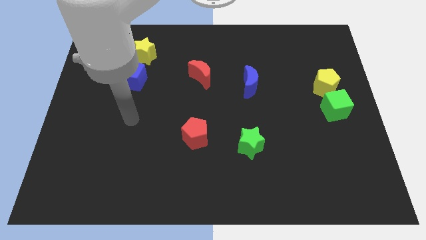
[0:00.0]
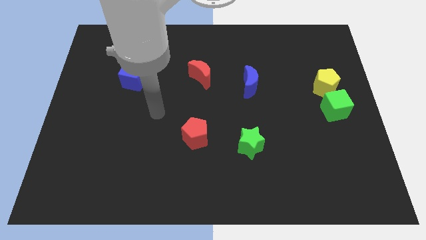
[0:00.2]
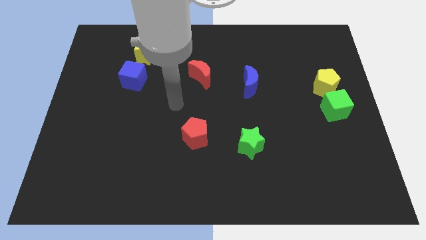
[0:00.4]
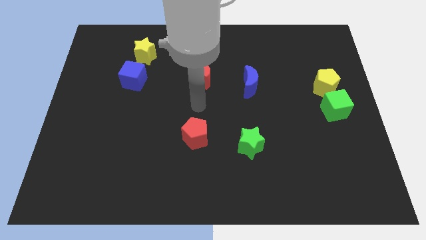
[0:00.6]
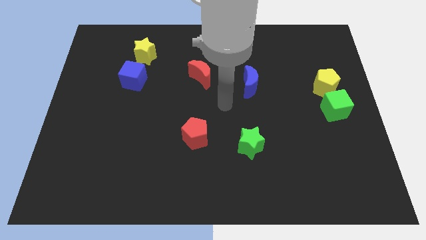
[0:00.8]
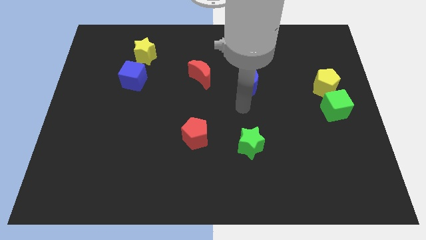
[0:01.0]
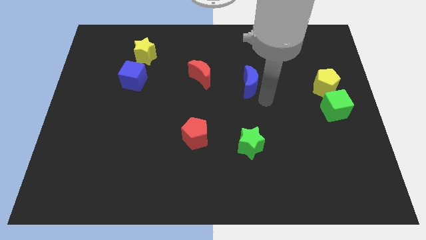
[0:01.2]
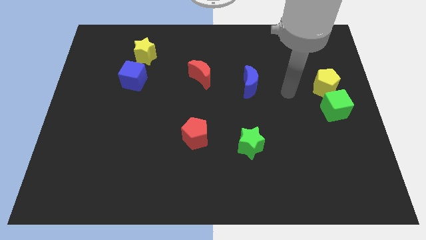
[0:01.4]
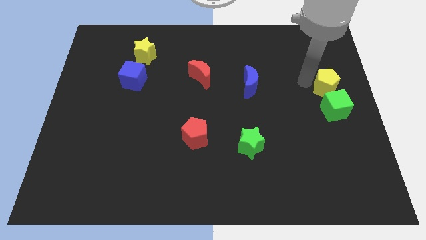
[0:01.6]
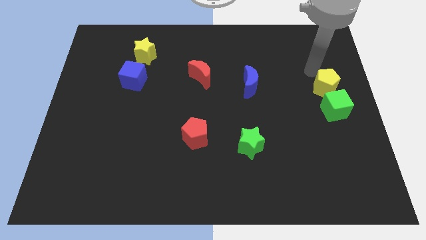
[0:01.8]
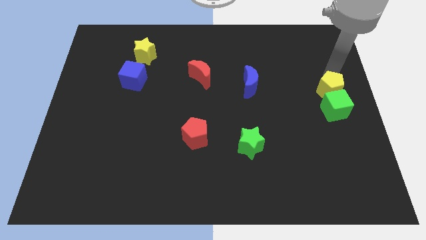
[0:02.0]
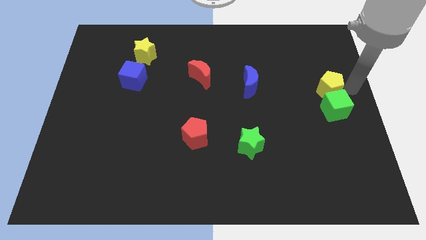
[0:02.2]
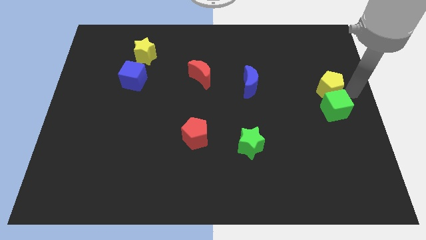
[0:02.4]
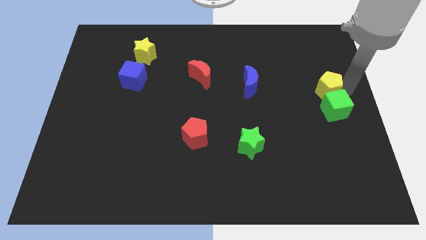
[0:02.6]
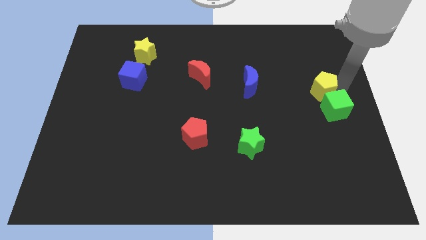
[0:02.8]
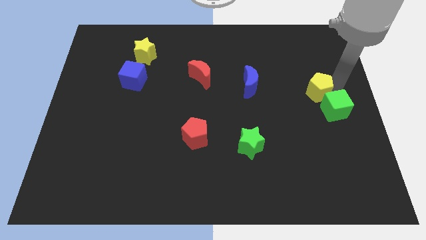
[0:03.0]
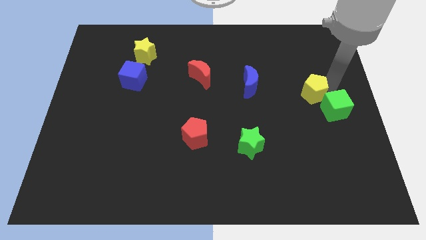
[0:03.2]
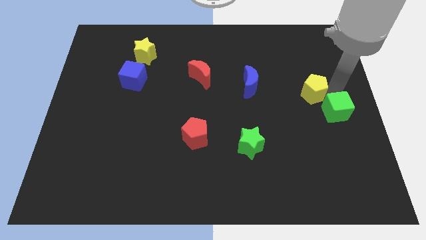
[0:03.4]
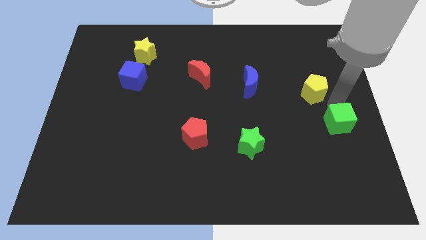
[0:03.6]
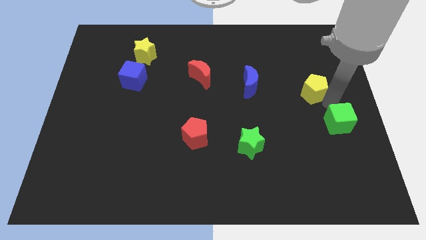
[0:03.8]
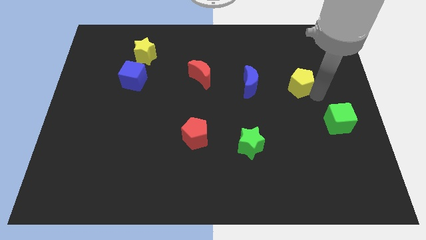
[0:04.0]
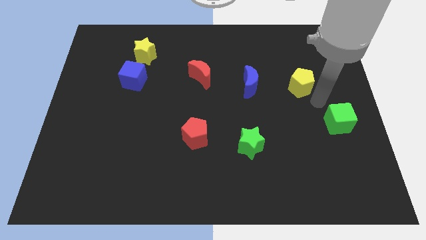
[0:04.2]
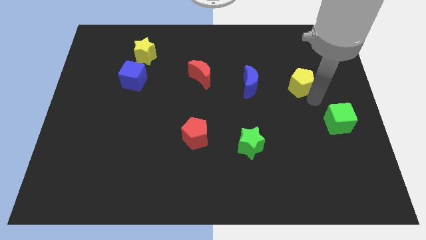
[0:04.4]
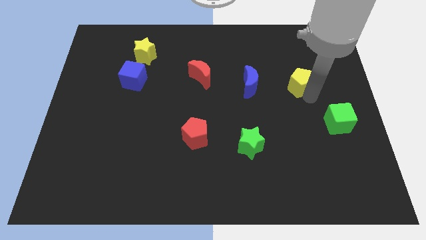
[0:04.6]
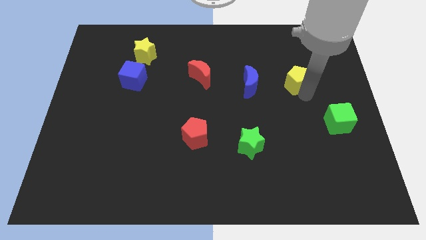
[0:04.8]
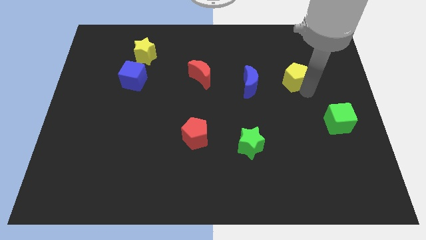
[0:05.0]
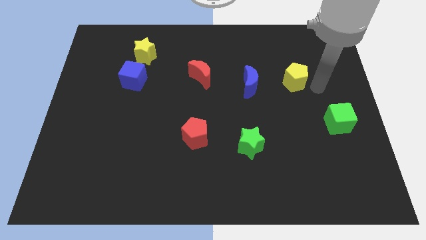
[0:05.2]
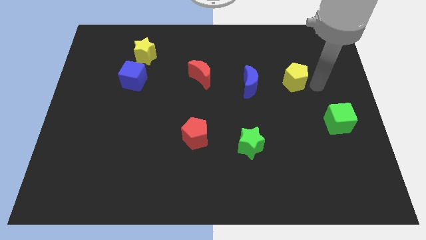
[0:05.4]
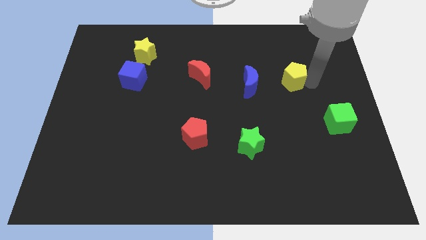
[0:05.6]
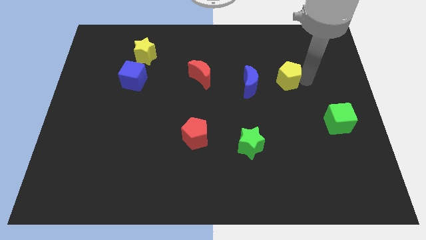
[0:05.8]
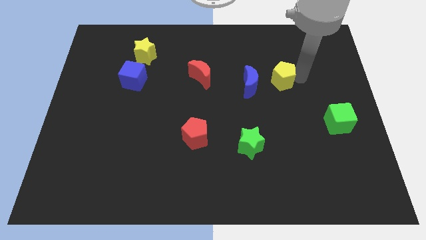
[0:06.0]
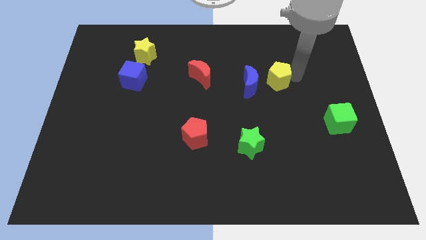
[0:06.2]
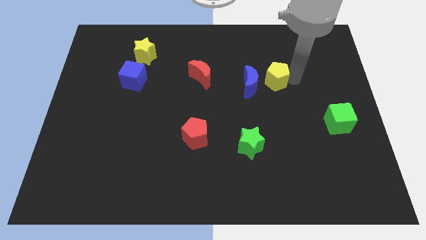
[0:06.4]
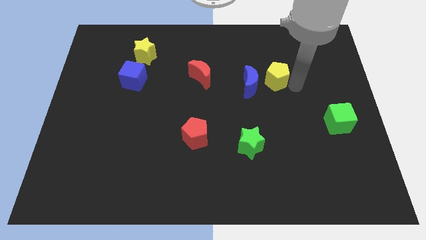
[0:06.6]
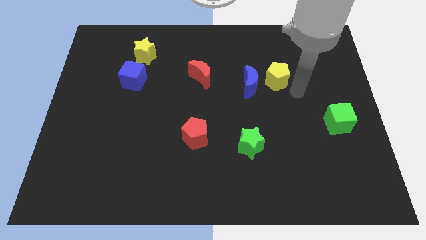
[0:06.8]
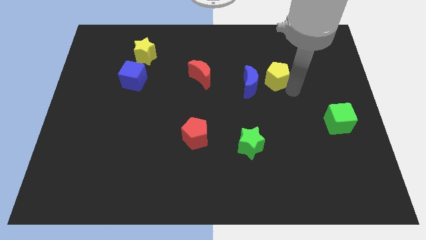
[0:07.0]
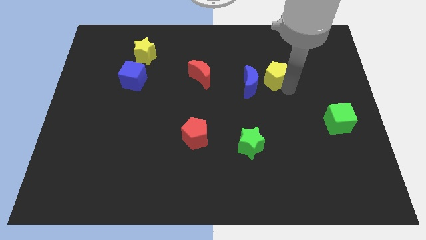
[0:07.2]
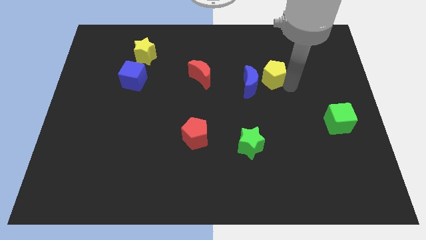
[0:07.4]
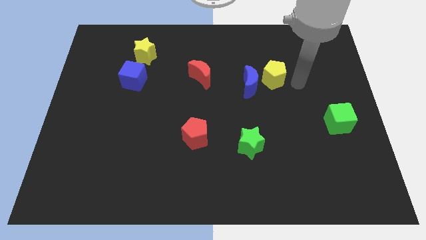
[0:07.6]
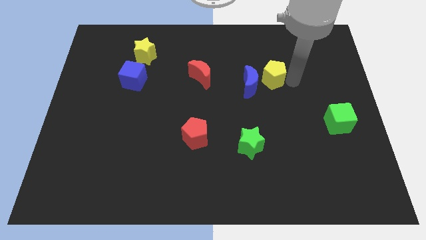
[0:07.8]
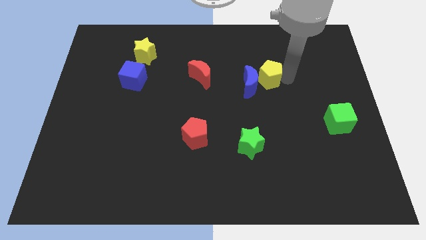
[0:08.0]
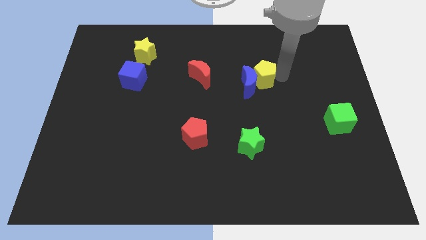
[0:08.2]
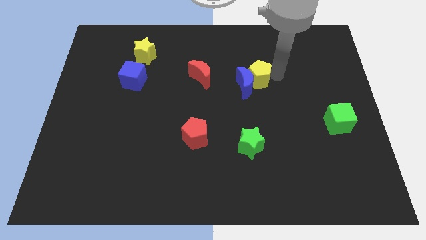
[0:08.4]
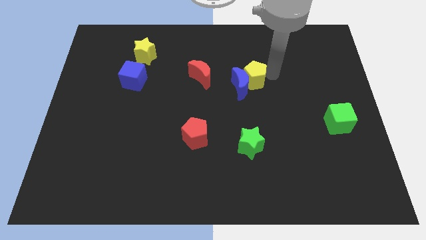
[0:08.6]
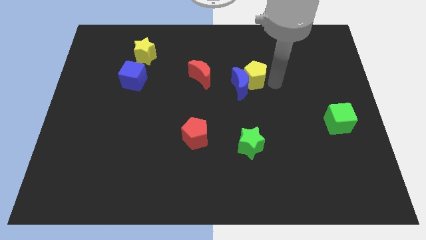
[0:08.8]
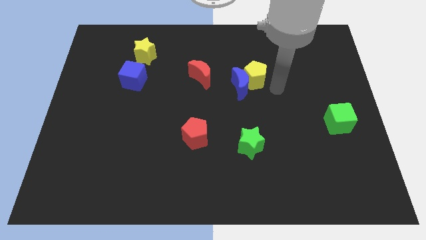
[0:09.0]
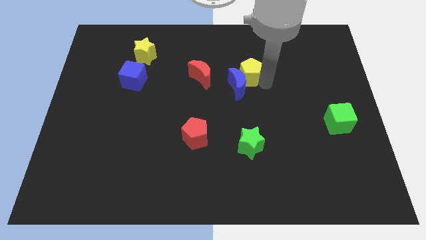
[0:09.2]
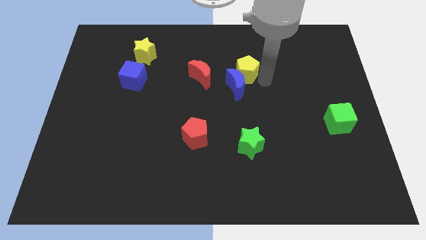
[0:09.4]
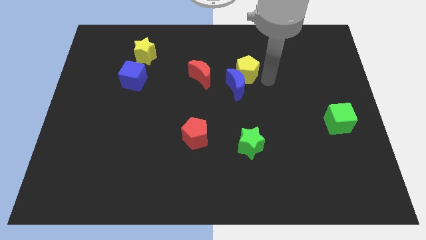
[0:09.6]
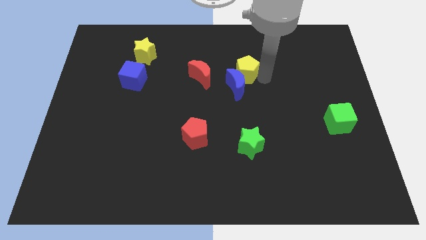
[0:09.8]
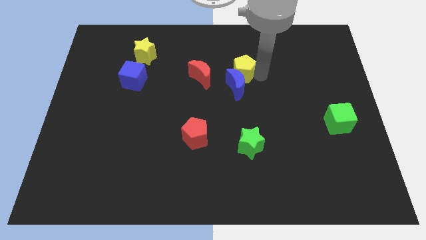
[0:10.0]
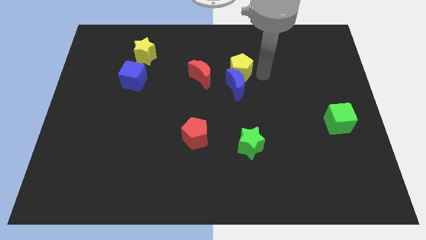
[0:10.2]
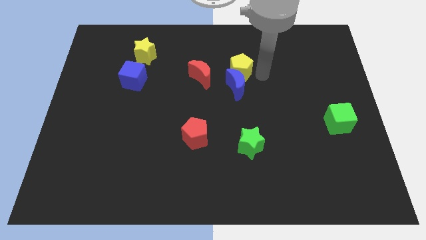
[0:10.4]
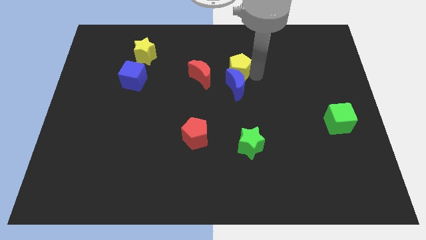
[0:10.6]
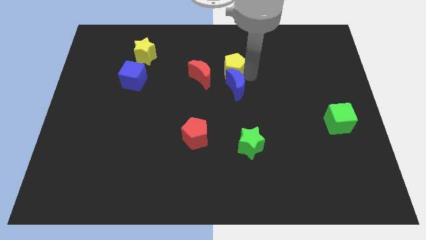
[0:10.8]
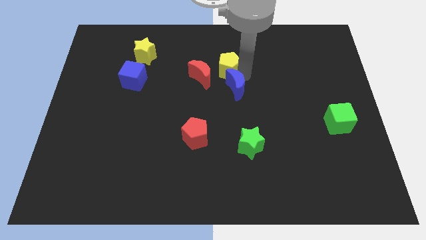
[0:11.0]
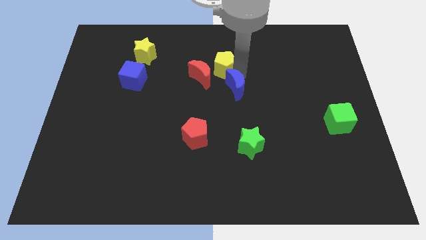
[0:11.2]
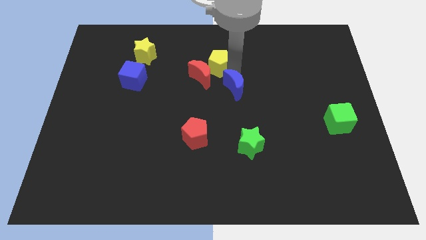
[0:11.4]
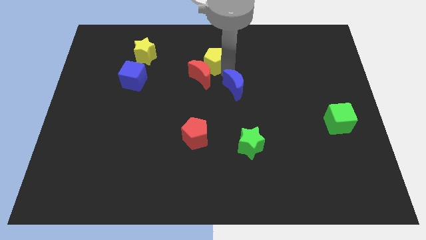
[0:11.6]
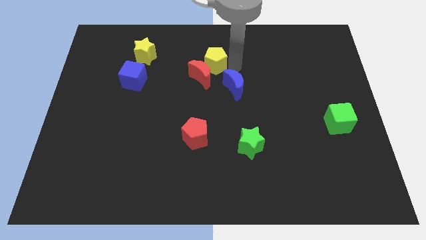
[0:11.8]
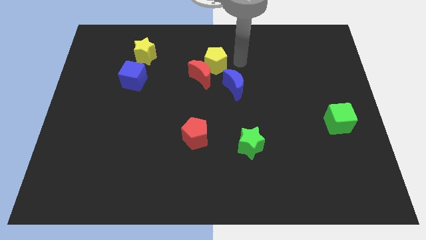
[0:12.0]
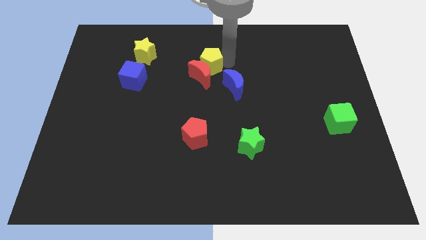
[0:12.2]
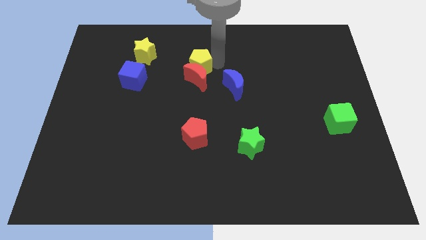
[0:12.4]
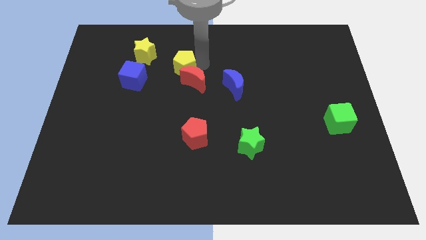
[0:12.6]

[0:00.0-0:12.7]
slide the yellow pentagon to the bottom right of the yellow star

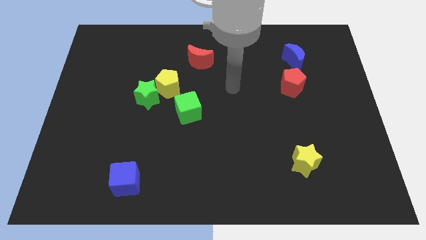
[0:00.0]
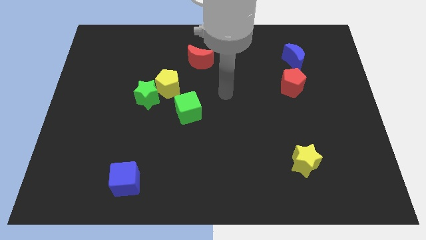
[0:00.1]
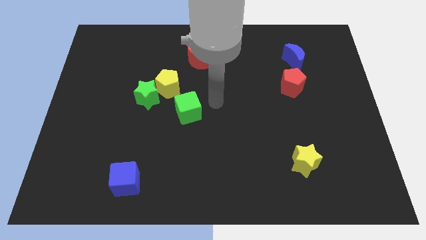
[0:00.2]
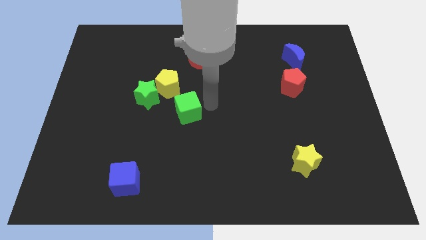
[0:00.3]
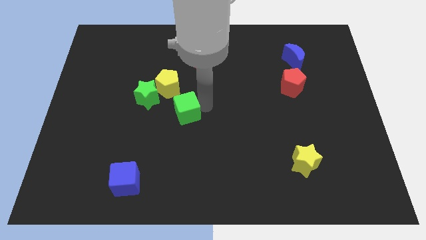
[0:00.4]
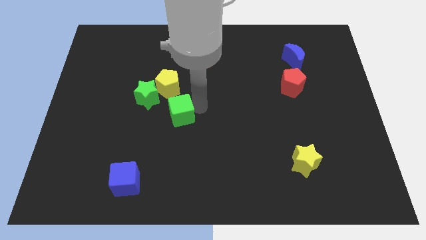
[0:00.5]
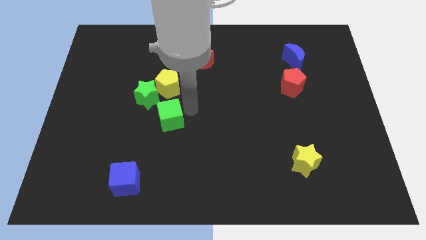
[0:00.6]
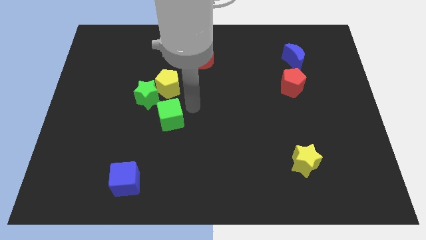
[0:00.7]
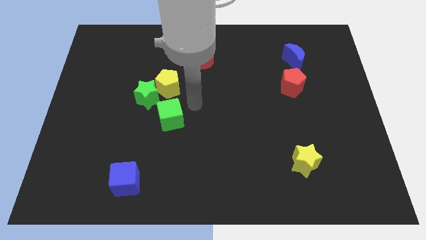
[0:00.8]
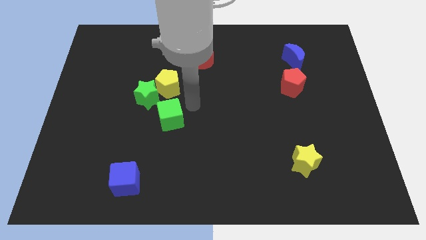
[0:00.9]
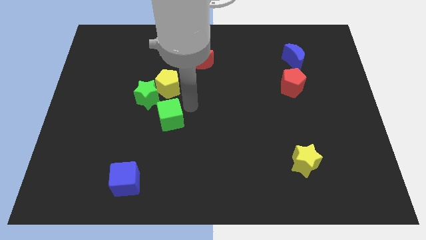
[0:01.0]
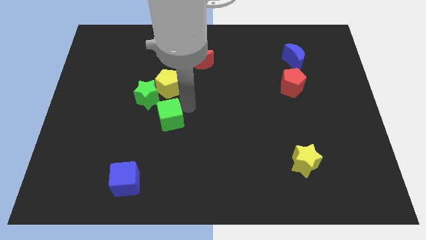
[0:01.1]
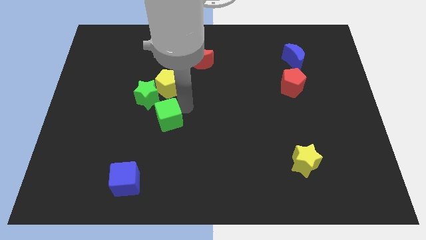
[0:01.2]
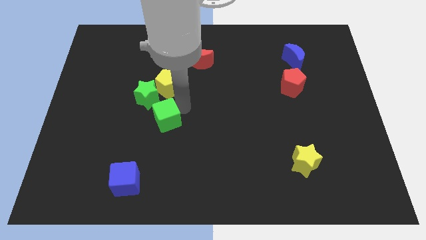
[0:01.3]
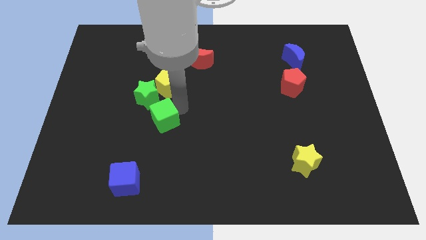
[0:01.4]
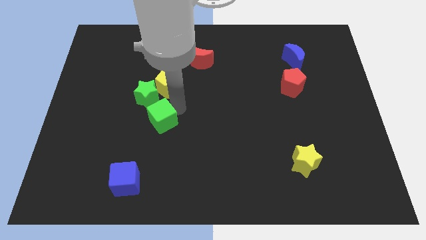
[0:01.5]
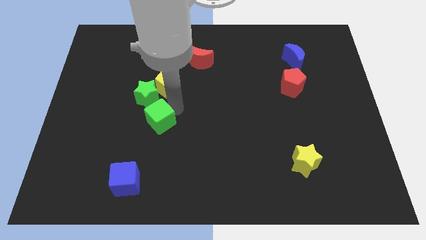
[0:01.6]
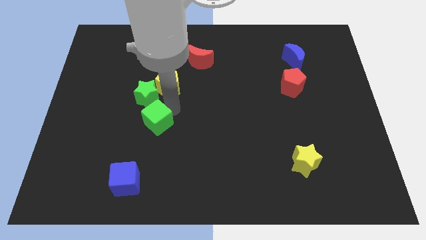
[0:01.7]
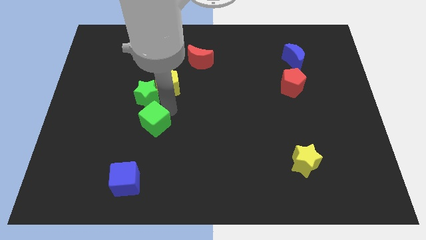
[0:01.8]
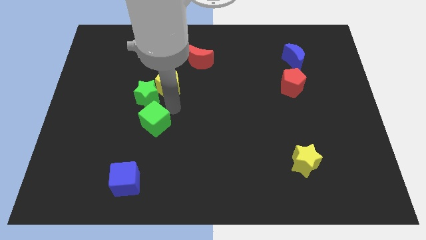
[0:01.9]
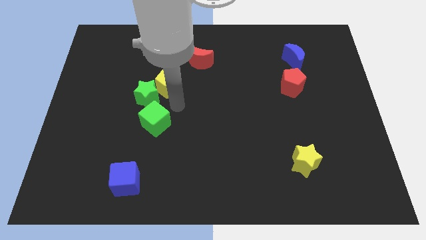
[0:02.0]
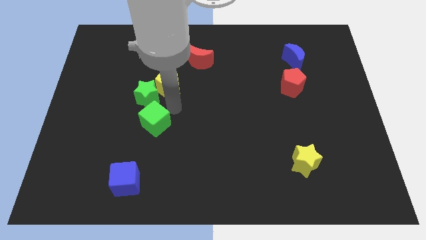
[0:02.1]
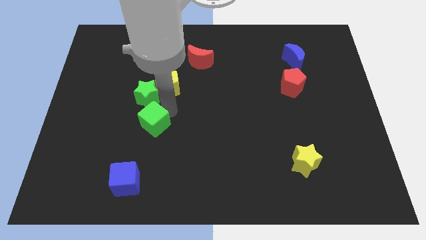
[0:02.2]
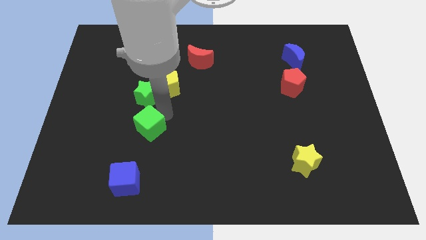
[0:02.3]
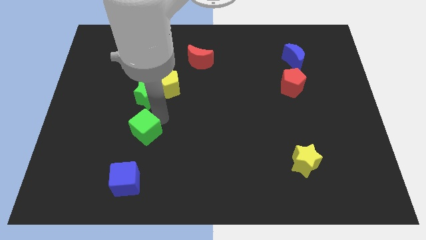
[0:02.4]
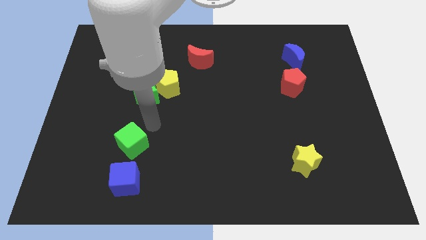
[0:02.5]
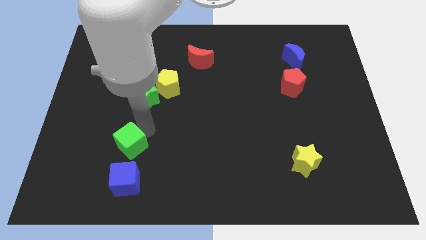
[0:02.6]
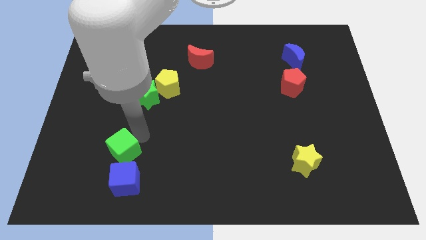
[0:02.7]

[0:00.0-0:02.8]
push the green cube to the top left of the blue cube
